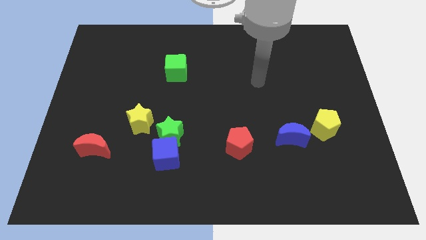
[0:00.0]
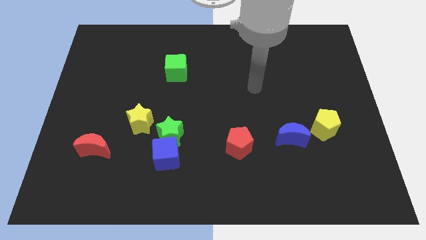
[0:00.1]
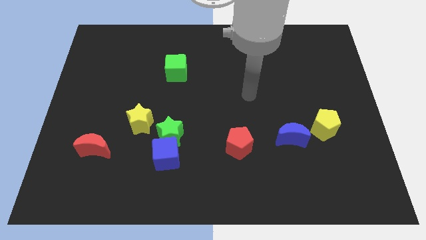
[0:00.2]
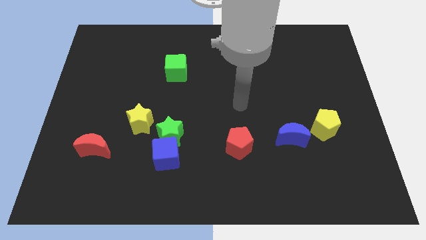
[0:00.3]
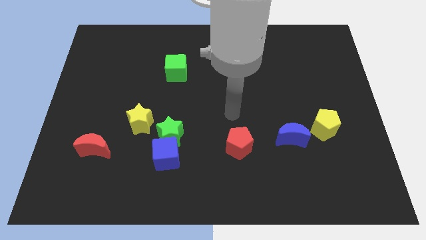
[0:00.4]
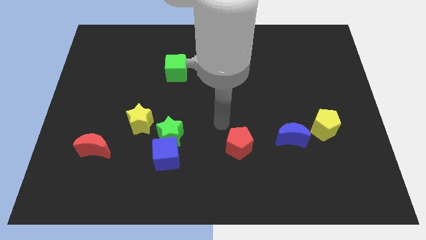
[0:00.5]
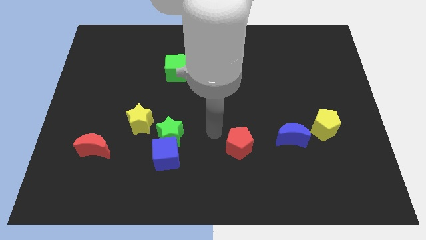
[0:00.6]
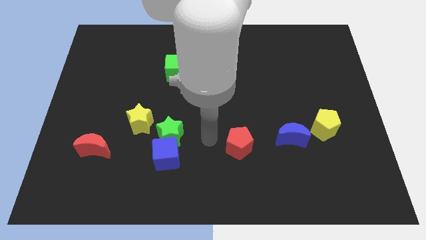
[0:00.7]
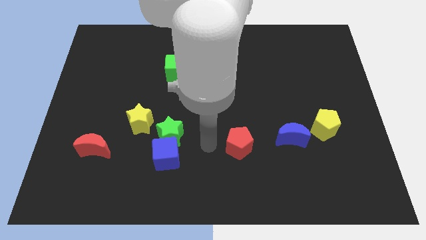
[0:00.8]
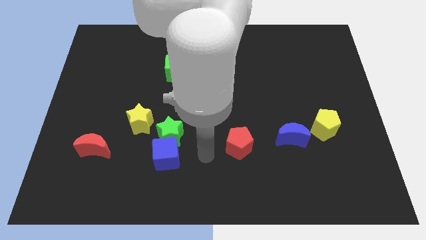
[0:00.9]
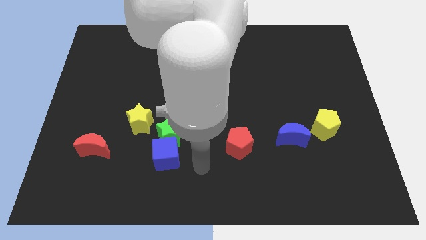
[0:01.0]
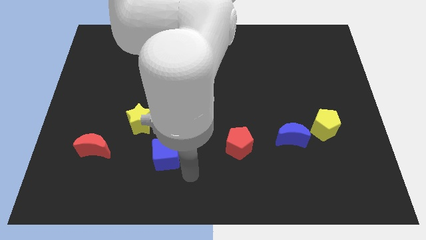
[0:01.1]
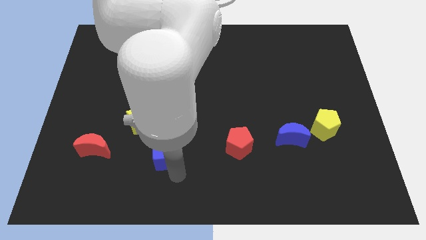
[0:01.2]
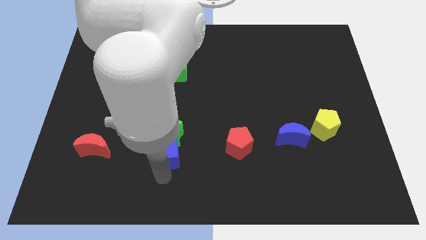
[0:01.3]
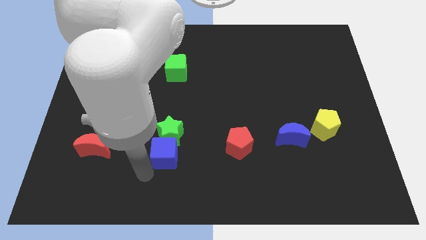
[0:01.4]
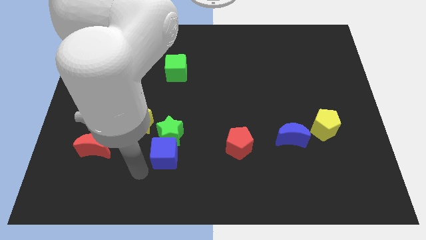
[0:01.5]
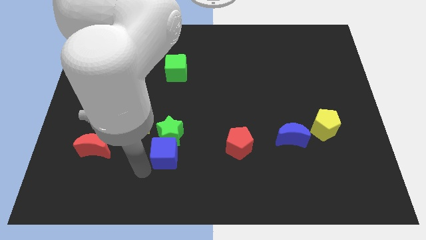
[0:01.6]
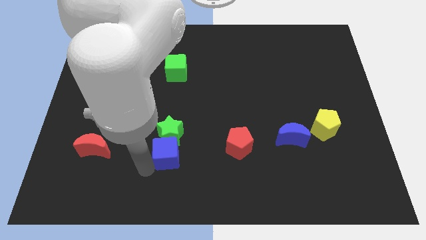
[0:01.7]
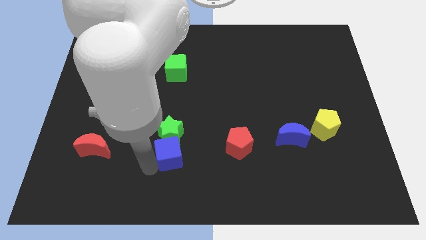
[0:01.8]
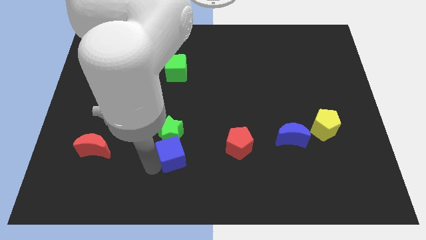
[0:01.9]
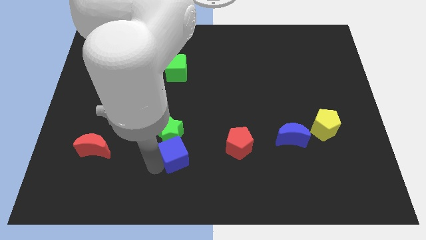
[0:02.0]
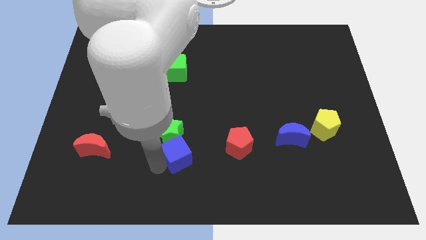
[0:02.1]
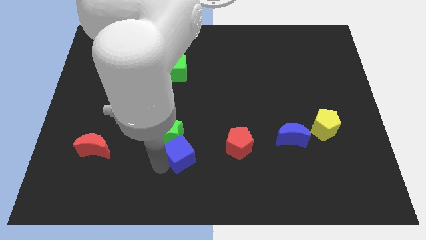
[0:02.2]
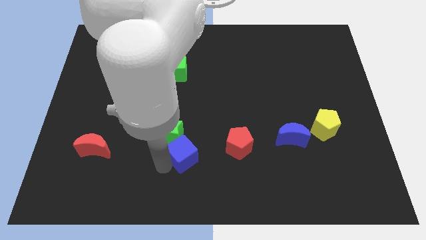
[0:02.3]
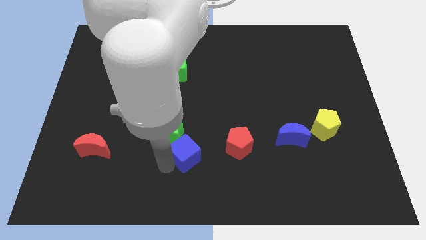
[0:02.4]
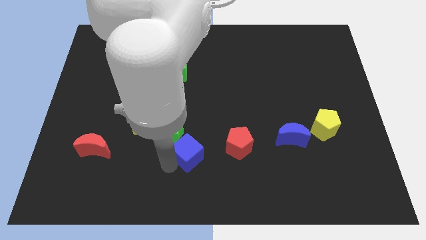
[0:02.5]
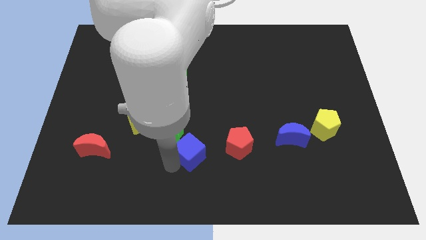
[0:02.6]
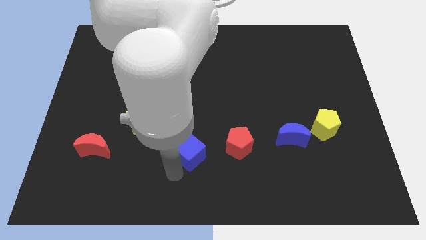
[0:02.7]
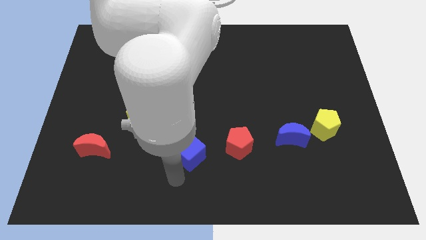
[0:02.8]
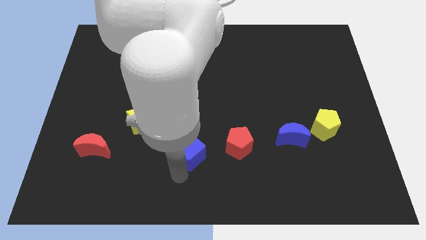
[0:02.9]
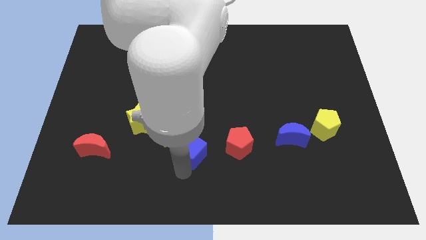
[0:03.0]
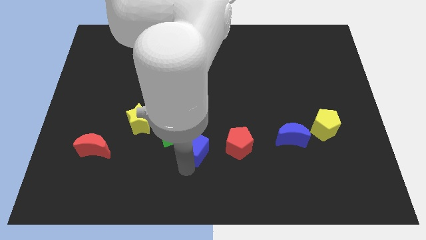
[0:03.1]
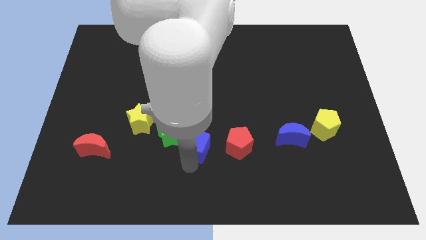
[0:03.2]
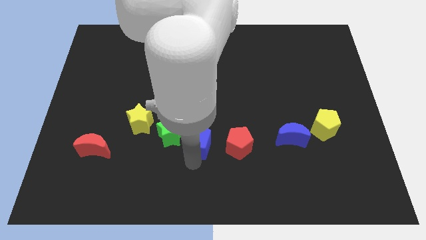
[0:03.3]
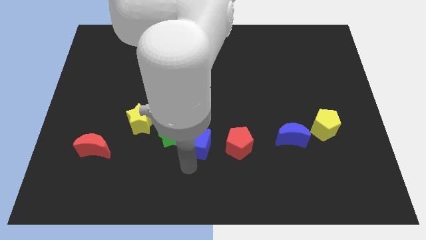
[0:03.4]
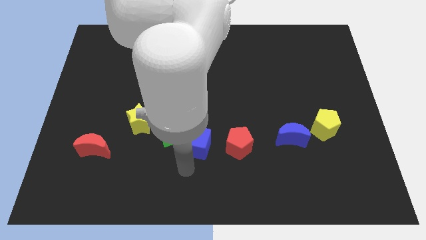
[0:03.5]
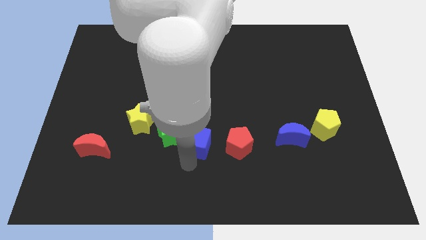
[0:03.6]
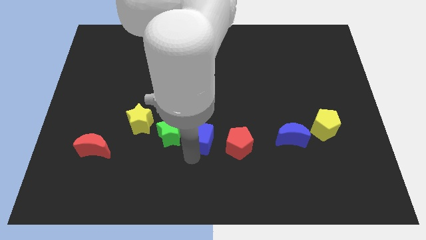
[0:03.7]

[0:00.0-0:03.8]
slide the blue cube up and right a little bit

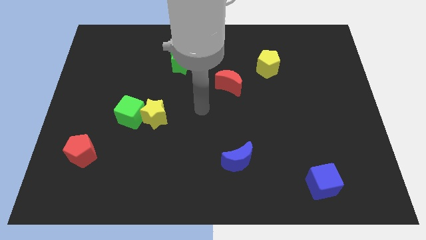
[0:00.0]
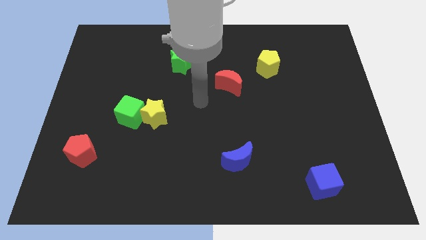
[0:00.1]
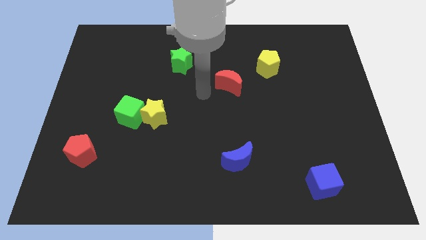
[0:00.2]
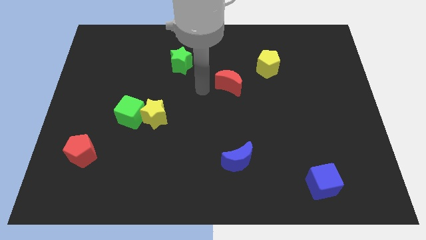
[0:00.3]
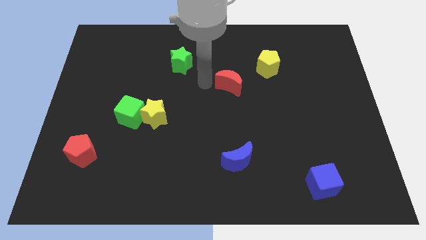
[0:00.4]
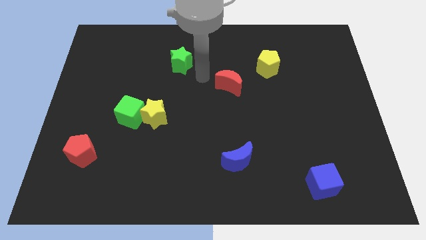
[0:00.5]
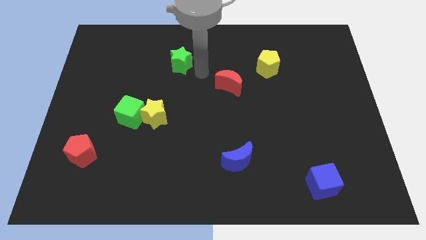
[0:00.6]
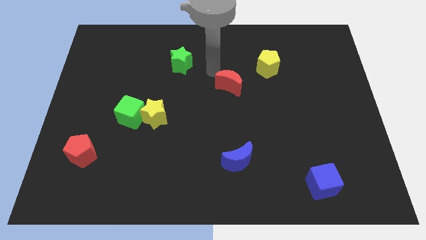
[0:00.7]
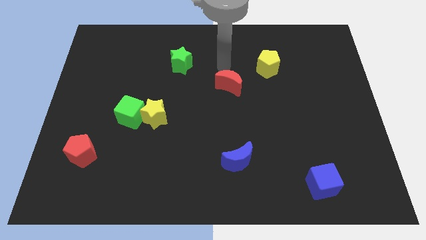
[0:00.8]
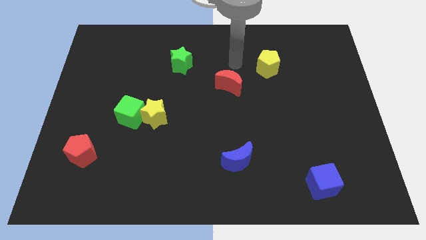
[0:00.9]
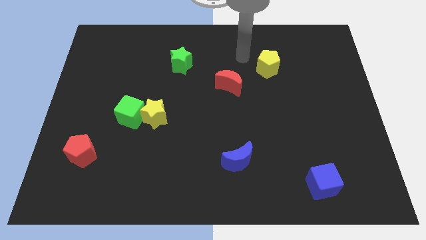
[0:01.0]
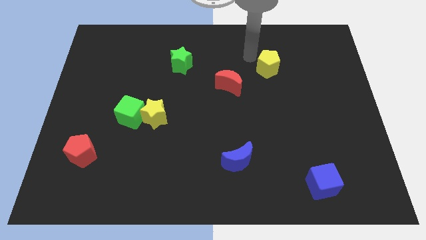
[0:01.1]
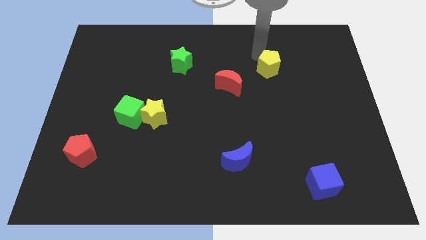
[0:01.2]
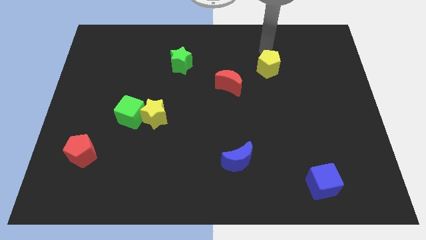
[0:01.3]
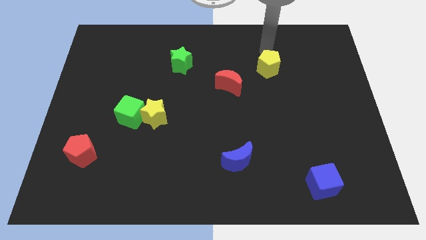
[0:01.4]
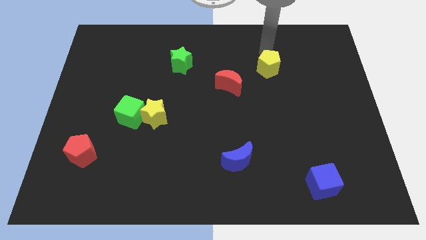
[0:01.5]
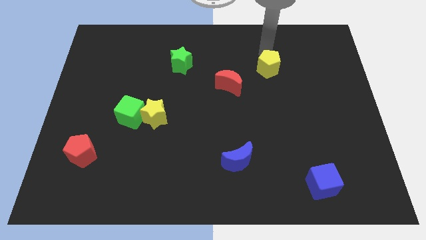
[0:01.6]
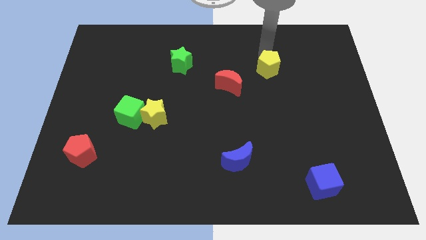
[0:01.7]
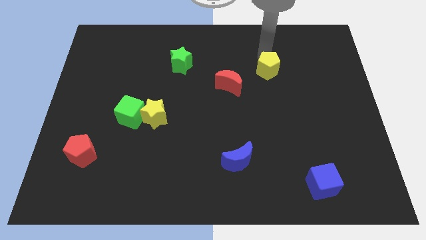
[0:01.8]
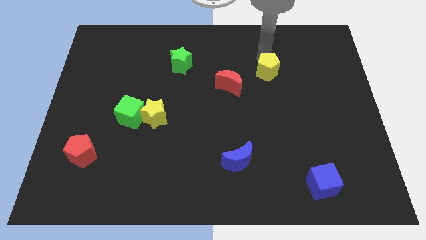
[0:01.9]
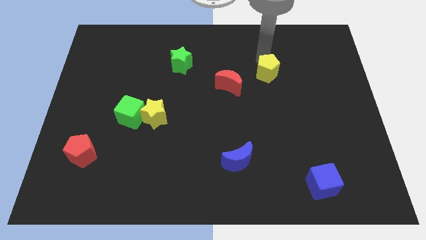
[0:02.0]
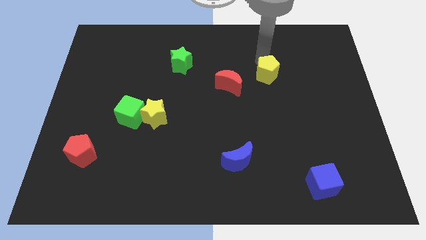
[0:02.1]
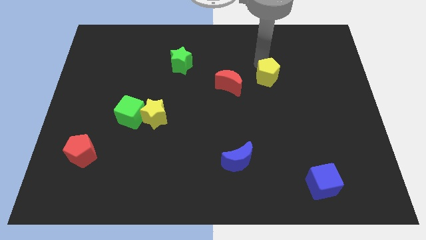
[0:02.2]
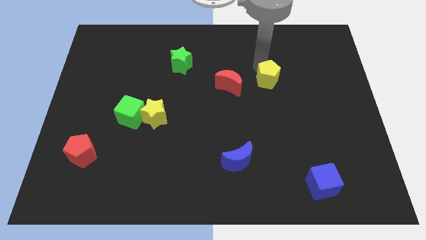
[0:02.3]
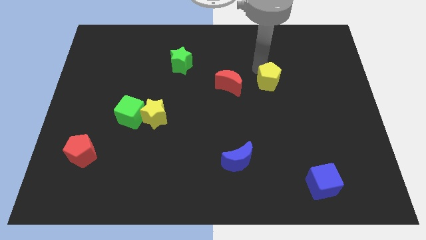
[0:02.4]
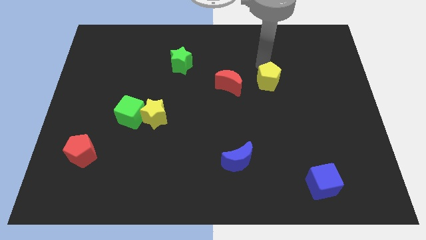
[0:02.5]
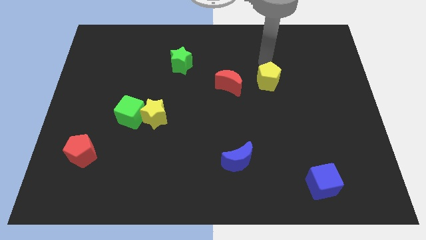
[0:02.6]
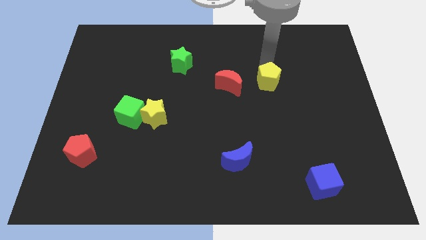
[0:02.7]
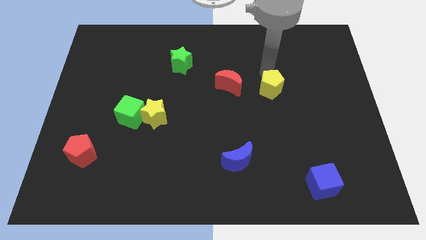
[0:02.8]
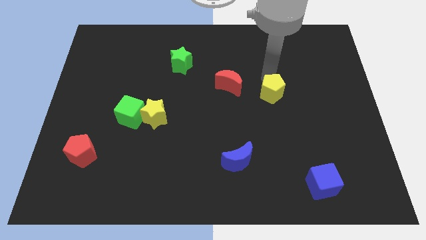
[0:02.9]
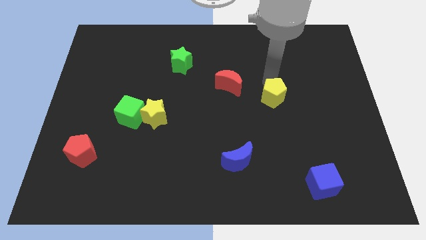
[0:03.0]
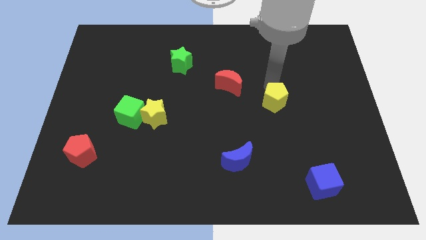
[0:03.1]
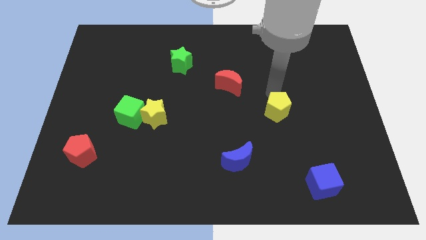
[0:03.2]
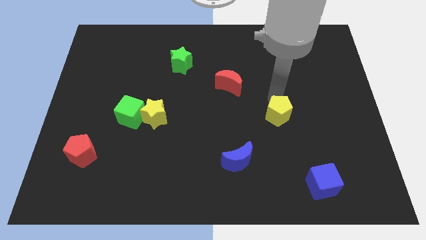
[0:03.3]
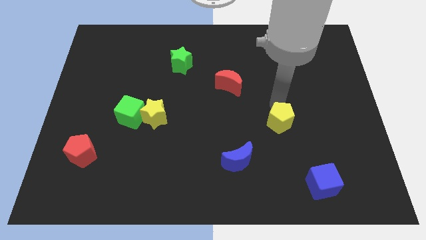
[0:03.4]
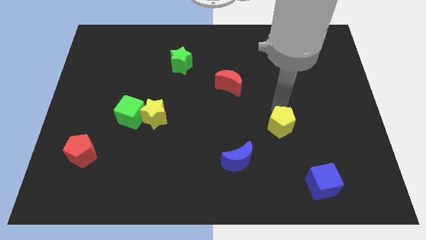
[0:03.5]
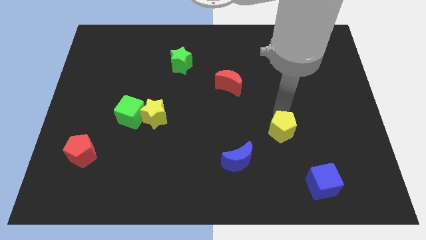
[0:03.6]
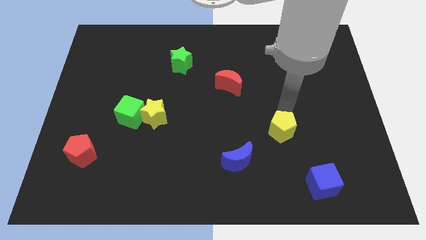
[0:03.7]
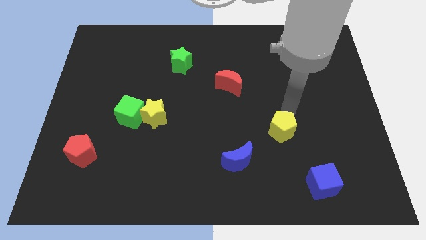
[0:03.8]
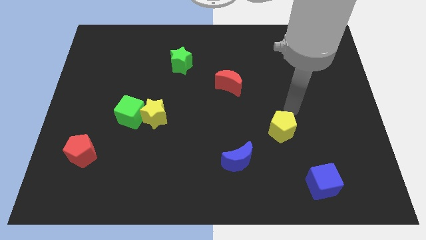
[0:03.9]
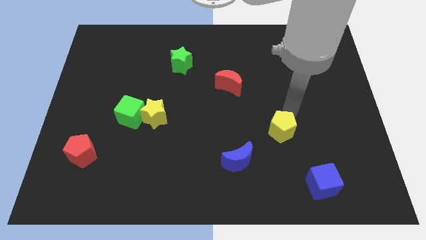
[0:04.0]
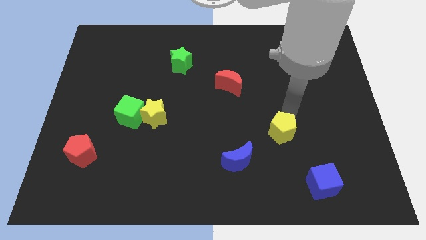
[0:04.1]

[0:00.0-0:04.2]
move the yellow pentagon down
